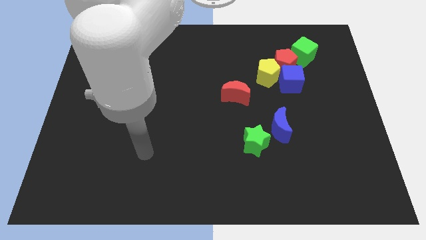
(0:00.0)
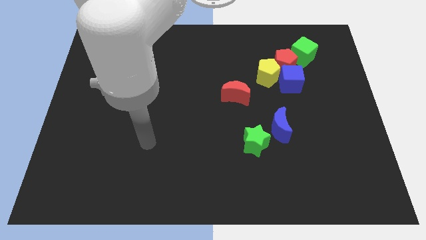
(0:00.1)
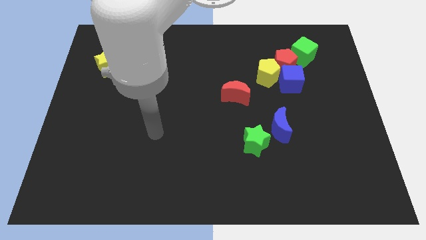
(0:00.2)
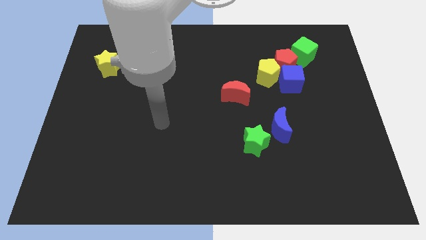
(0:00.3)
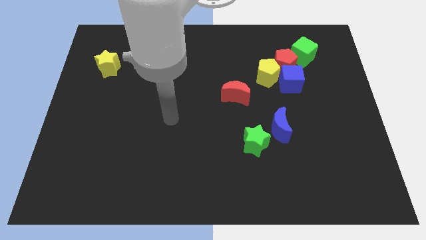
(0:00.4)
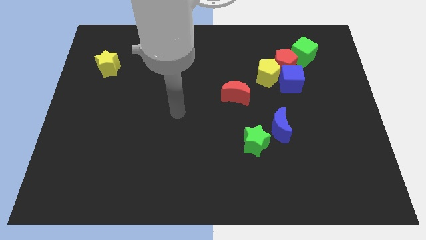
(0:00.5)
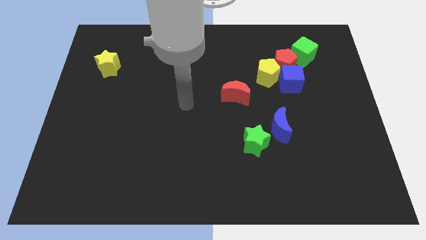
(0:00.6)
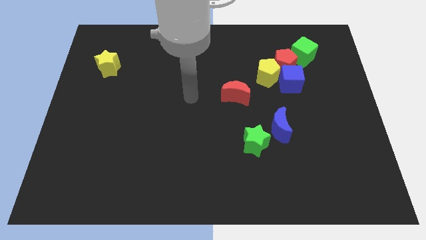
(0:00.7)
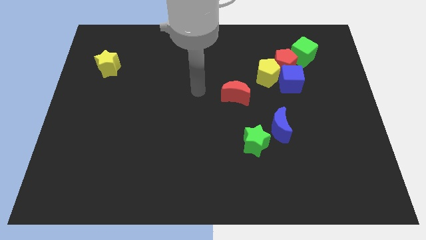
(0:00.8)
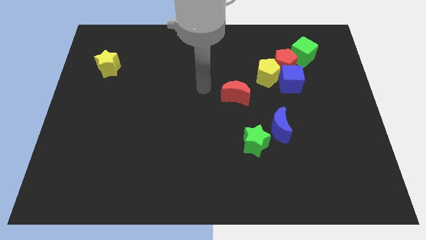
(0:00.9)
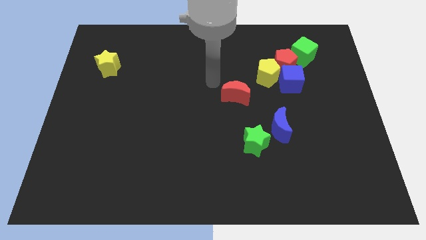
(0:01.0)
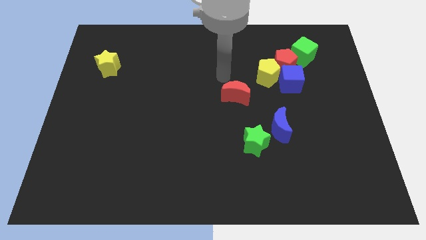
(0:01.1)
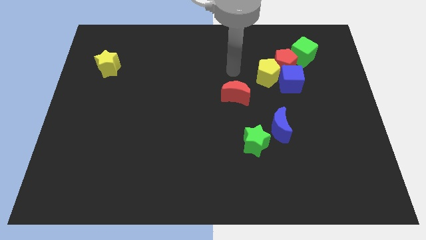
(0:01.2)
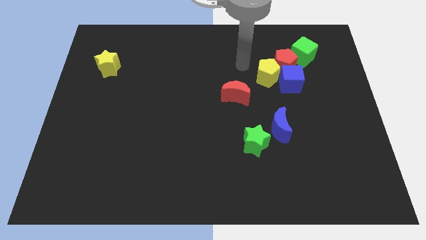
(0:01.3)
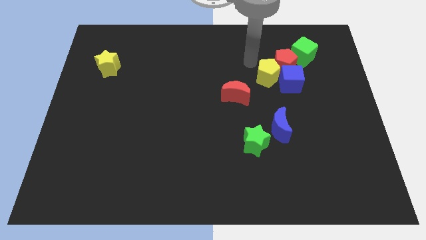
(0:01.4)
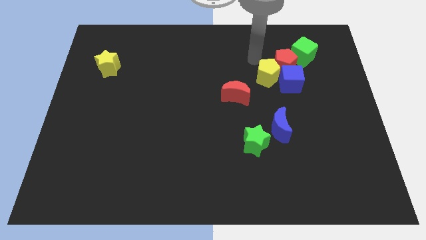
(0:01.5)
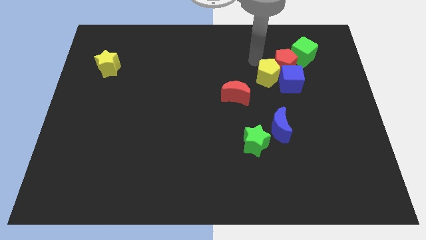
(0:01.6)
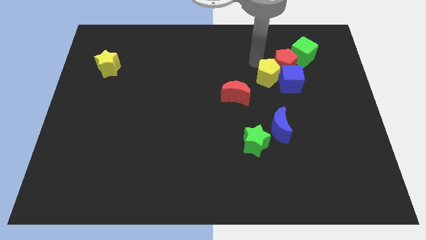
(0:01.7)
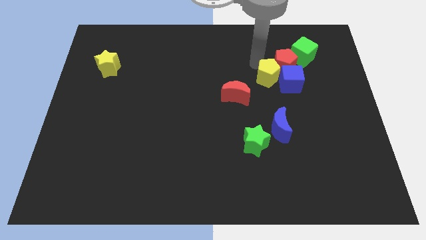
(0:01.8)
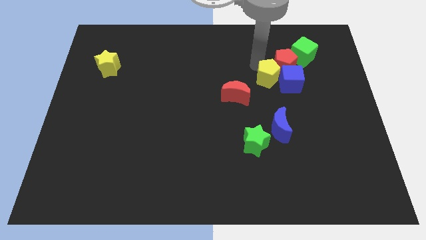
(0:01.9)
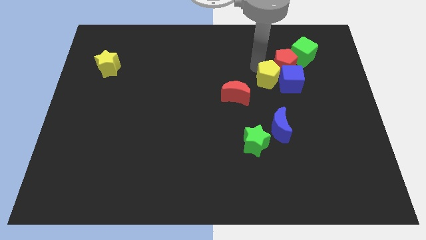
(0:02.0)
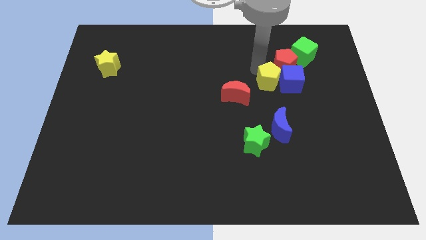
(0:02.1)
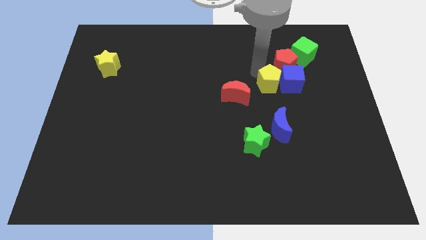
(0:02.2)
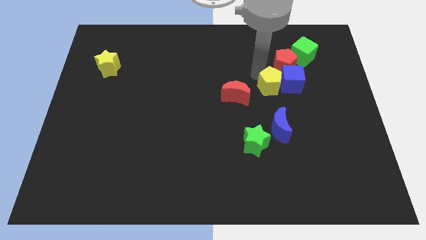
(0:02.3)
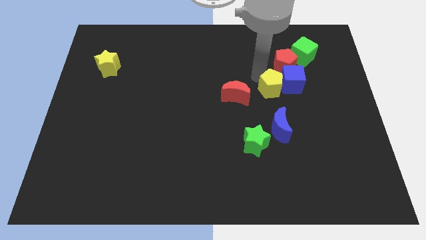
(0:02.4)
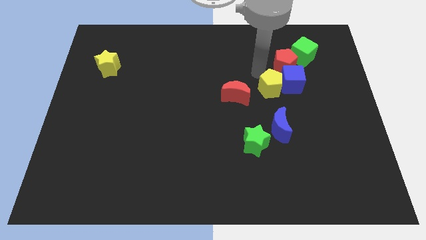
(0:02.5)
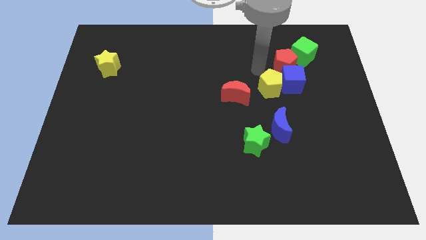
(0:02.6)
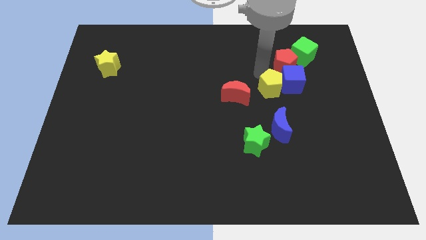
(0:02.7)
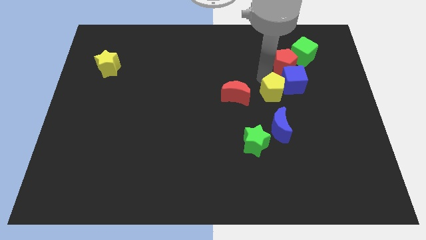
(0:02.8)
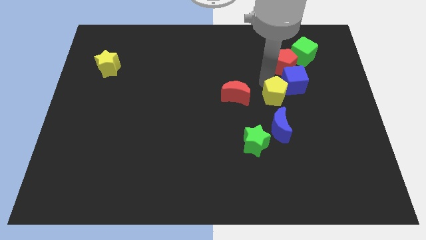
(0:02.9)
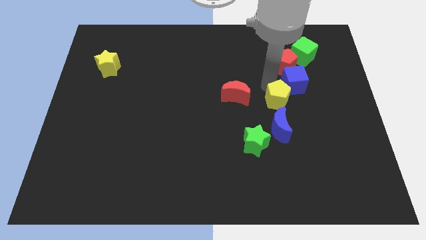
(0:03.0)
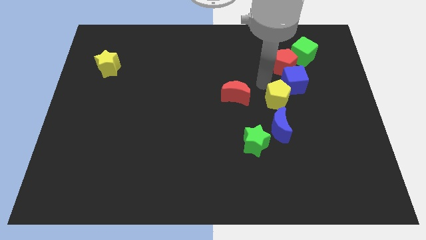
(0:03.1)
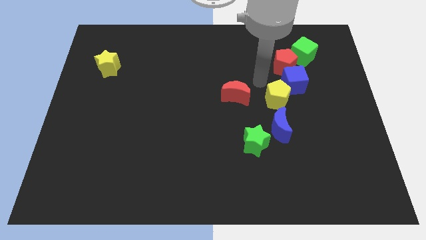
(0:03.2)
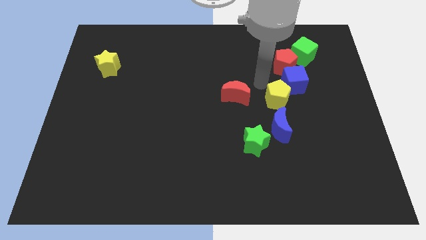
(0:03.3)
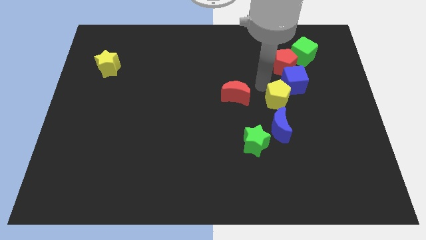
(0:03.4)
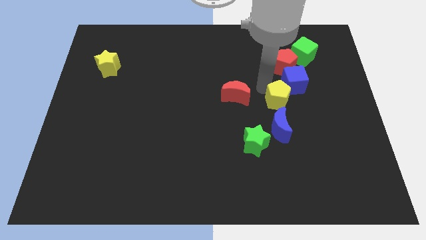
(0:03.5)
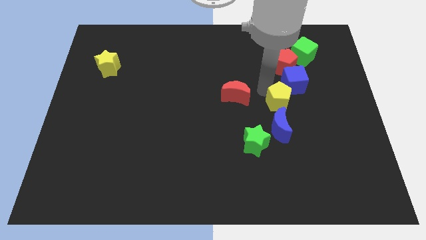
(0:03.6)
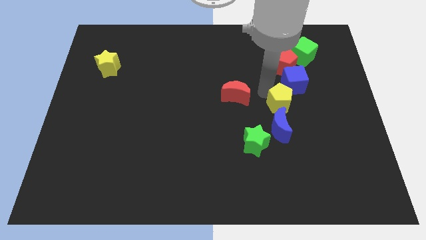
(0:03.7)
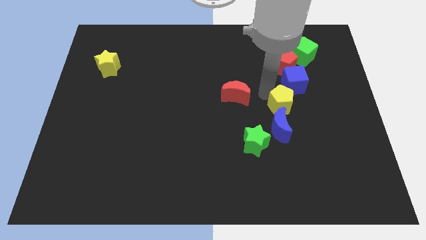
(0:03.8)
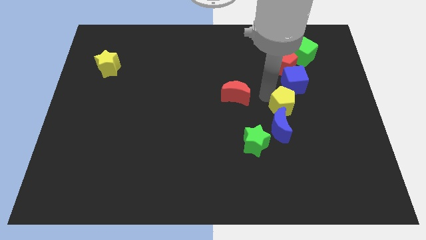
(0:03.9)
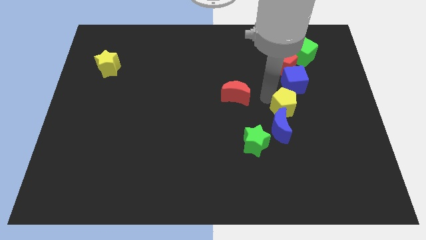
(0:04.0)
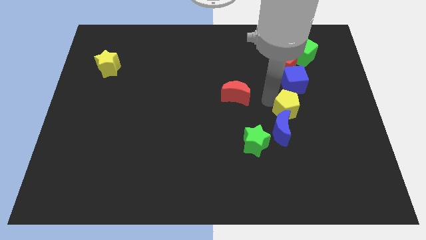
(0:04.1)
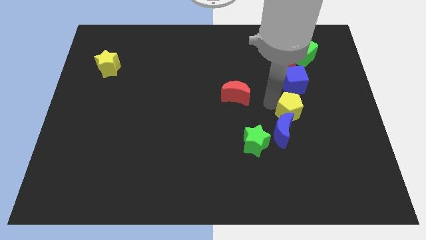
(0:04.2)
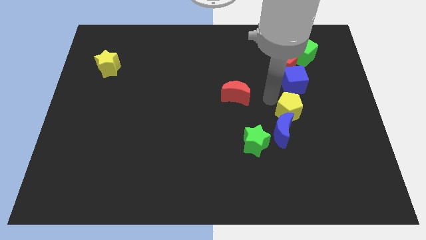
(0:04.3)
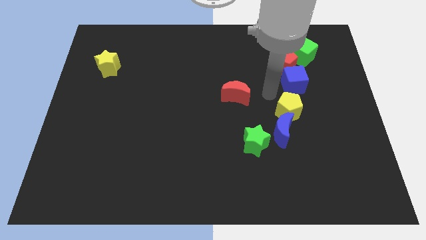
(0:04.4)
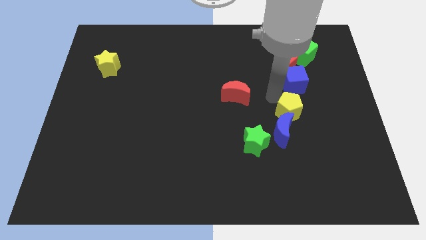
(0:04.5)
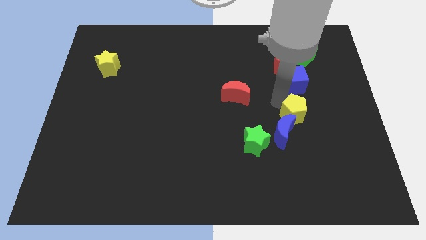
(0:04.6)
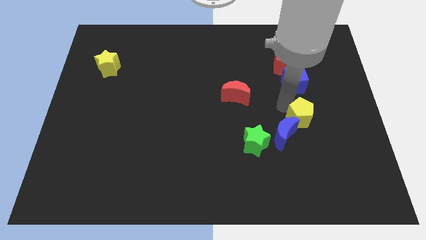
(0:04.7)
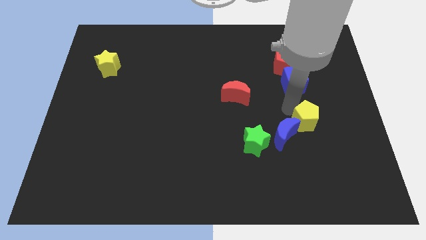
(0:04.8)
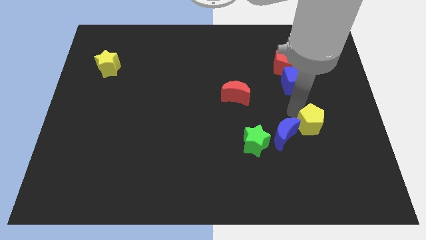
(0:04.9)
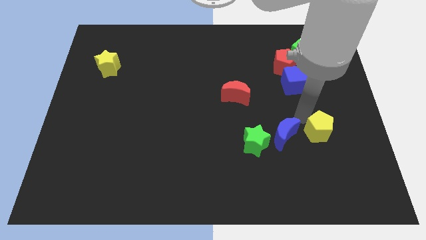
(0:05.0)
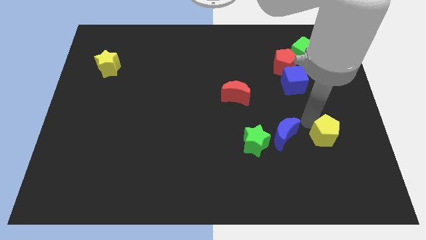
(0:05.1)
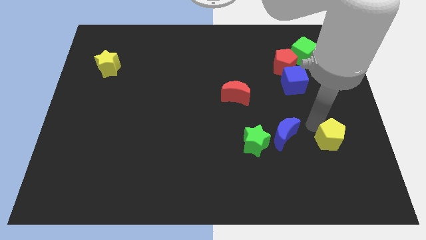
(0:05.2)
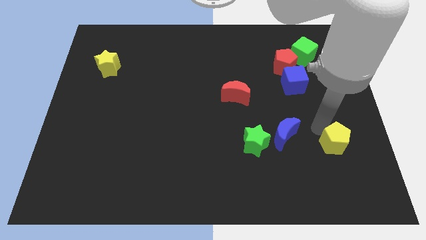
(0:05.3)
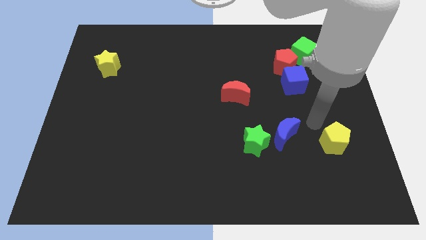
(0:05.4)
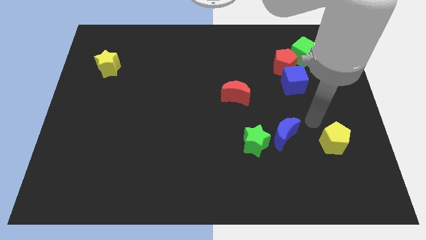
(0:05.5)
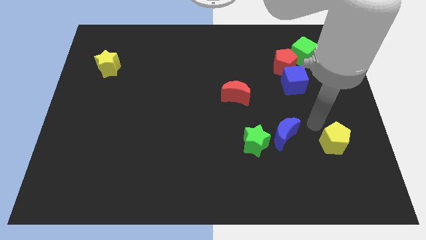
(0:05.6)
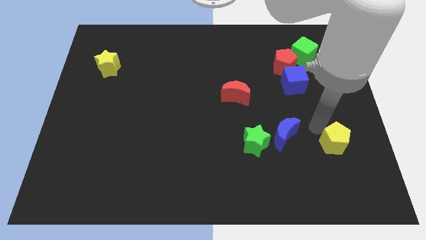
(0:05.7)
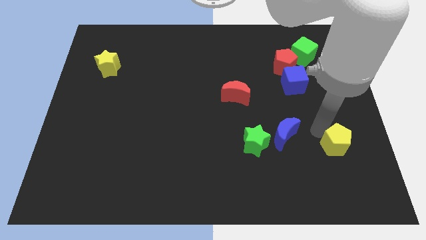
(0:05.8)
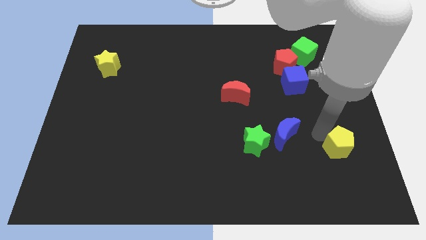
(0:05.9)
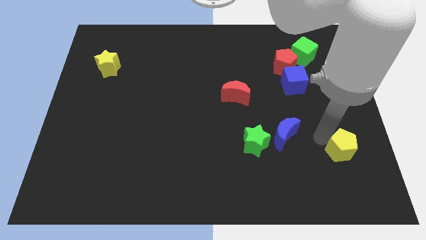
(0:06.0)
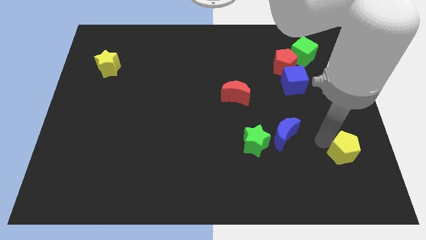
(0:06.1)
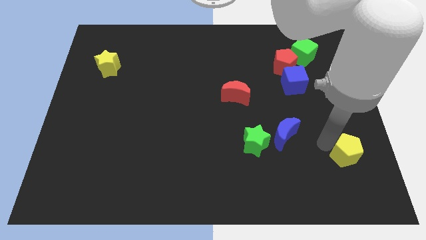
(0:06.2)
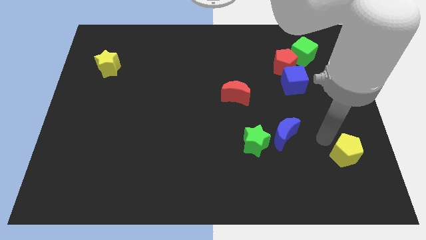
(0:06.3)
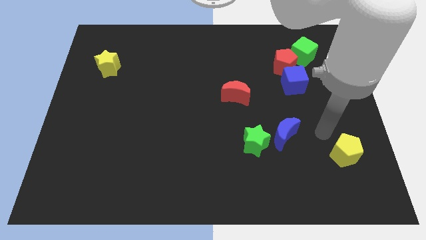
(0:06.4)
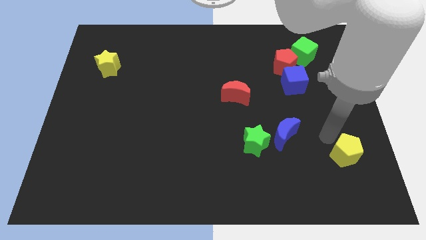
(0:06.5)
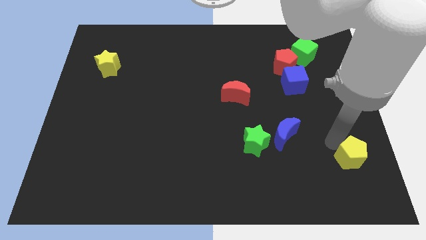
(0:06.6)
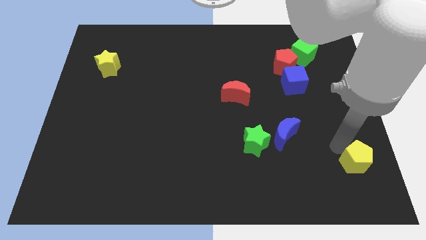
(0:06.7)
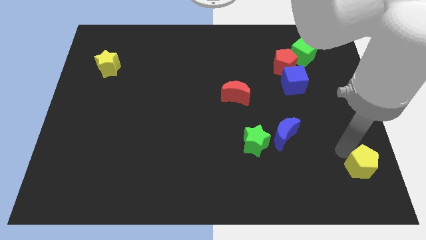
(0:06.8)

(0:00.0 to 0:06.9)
move the yellow pentagon to the bottom right
